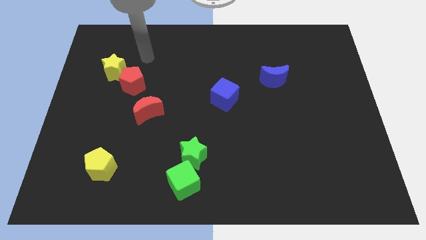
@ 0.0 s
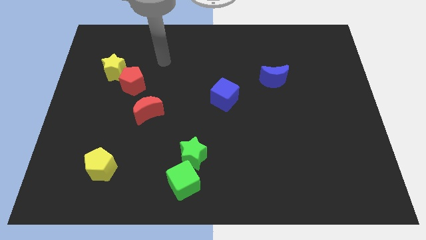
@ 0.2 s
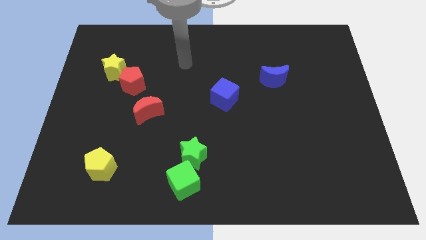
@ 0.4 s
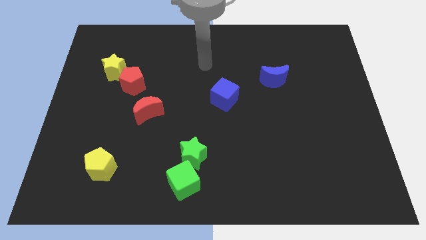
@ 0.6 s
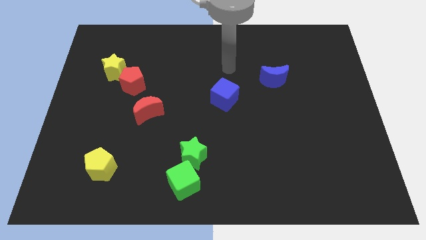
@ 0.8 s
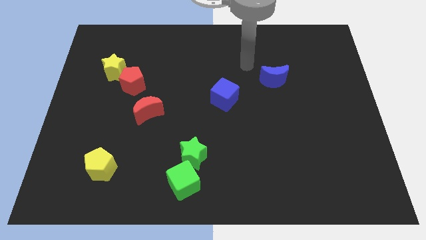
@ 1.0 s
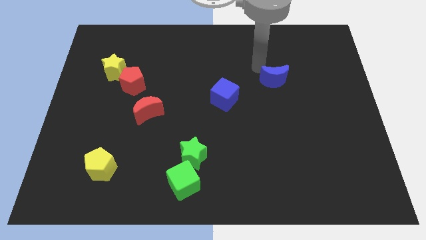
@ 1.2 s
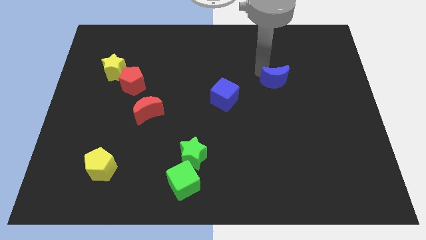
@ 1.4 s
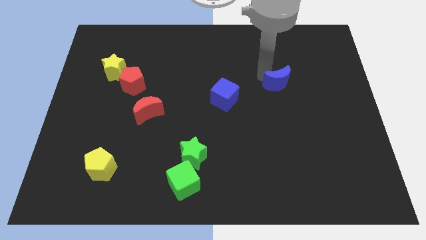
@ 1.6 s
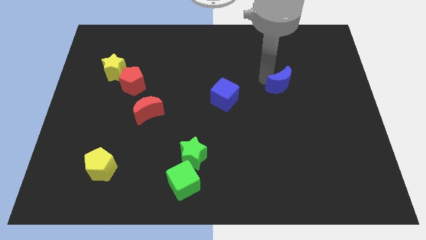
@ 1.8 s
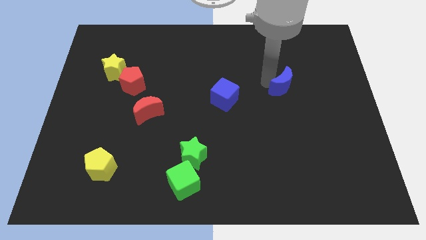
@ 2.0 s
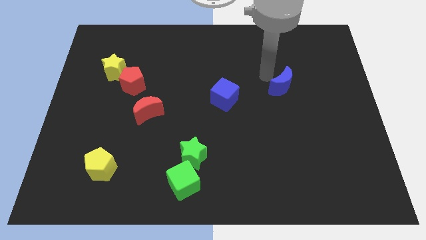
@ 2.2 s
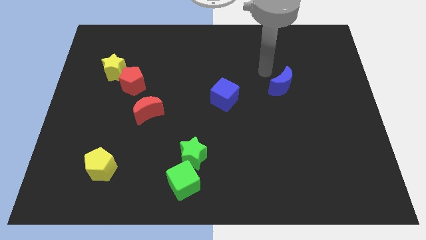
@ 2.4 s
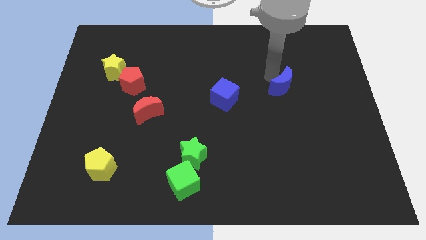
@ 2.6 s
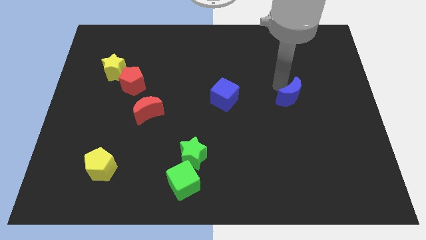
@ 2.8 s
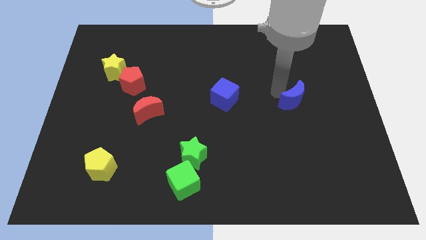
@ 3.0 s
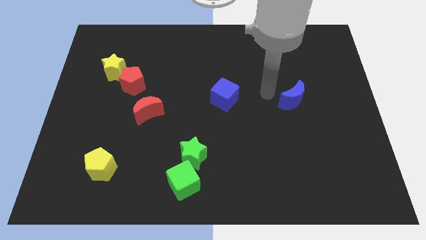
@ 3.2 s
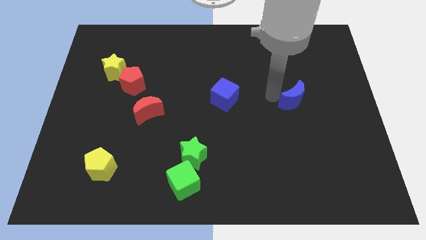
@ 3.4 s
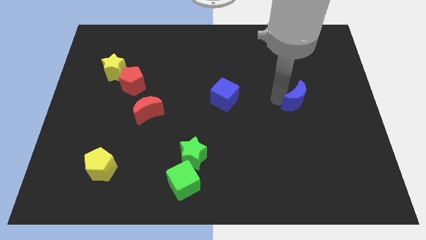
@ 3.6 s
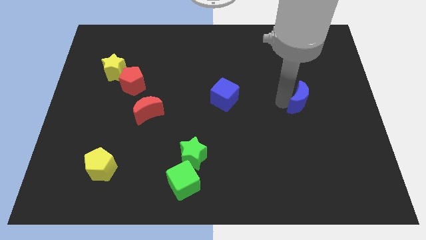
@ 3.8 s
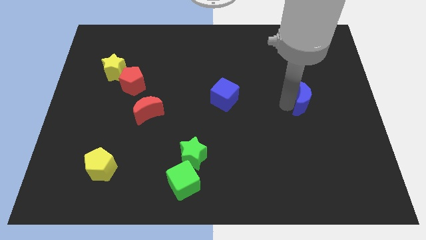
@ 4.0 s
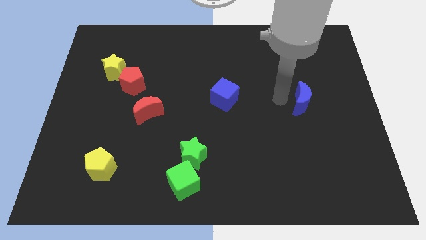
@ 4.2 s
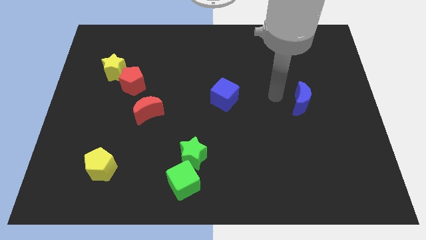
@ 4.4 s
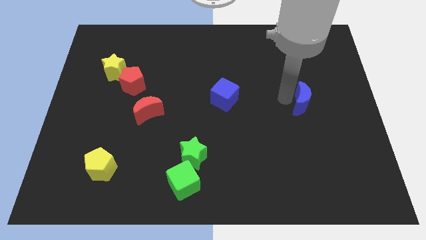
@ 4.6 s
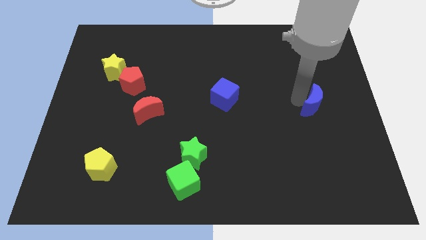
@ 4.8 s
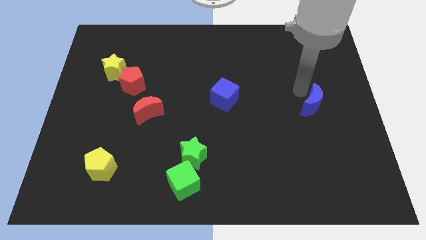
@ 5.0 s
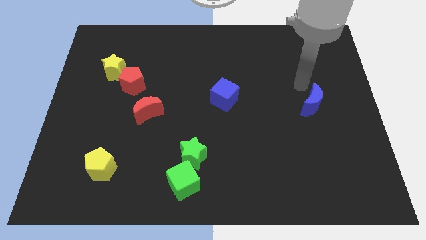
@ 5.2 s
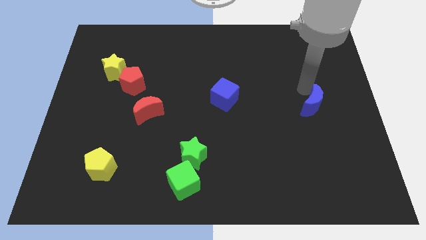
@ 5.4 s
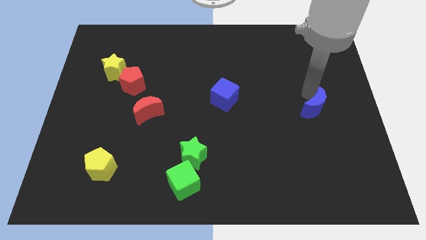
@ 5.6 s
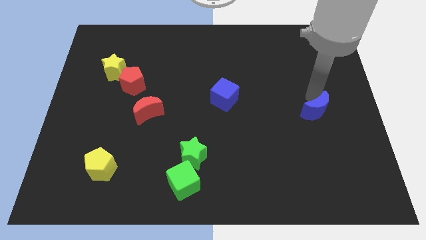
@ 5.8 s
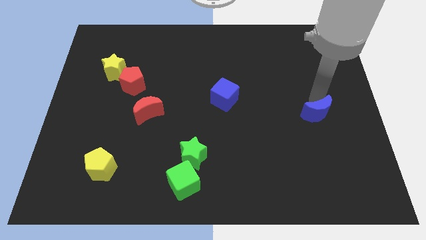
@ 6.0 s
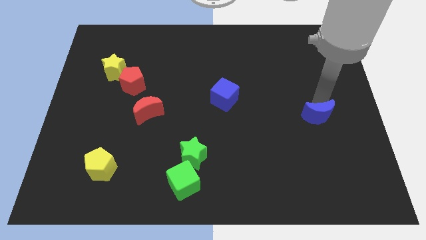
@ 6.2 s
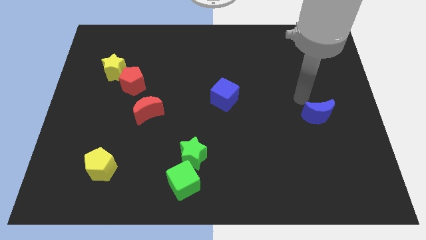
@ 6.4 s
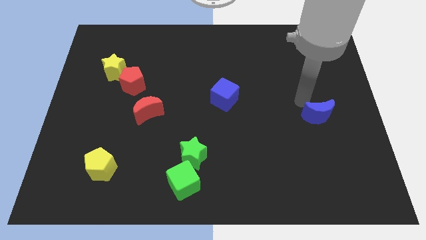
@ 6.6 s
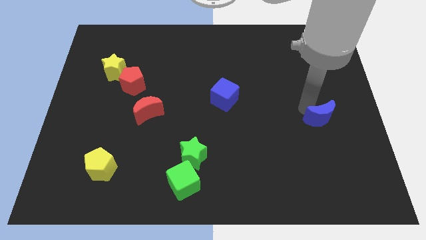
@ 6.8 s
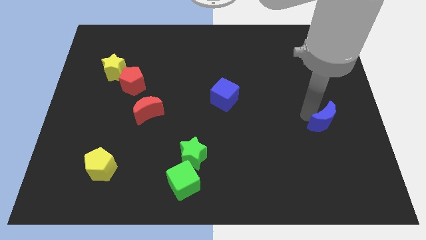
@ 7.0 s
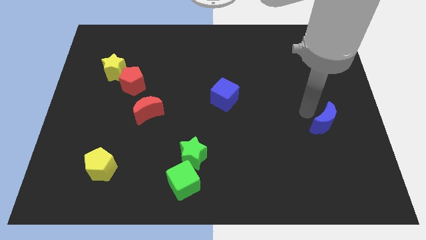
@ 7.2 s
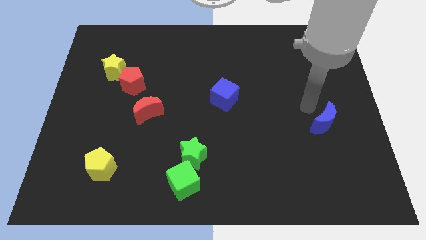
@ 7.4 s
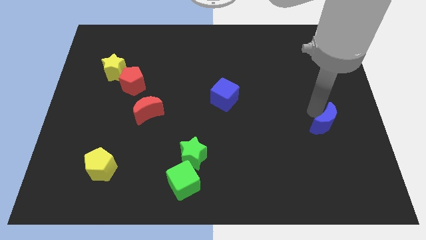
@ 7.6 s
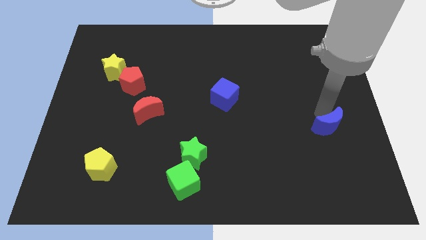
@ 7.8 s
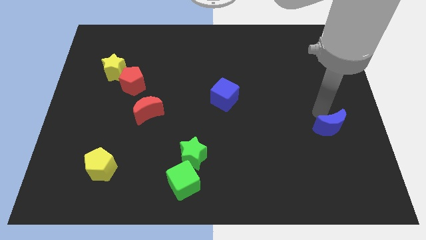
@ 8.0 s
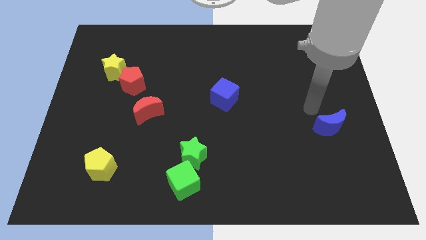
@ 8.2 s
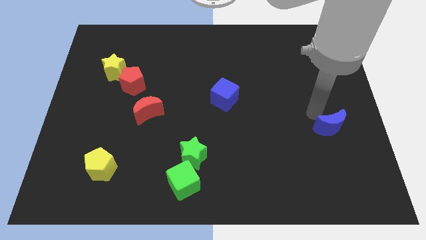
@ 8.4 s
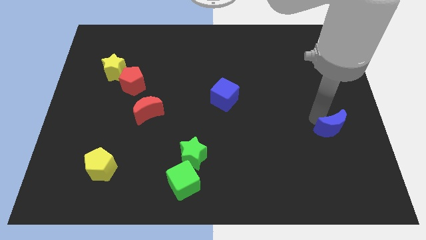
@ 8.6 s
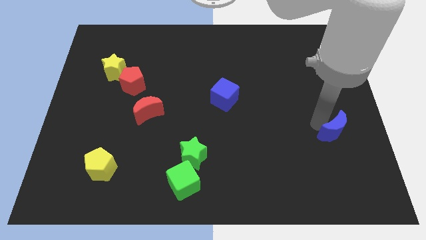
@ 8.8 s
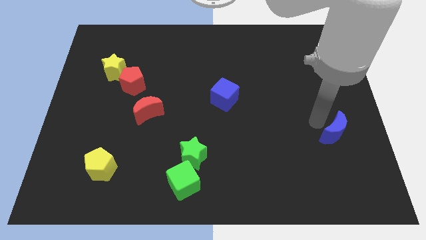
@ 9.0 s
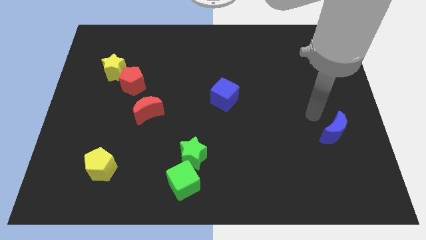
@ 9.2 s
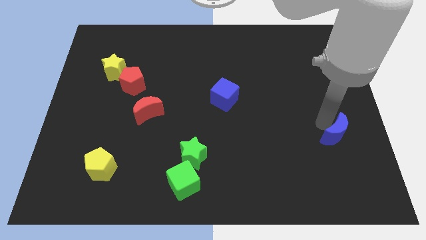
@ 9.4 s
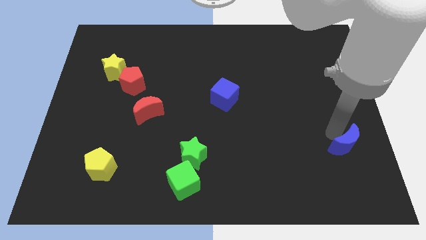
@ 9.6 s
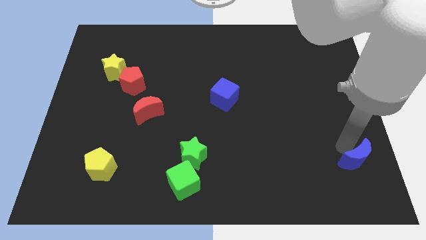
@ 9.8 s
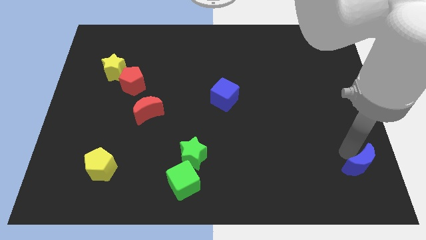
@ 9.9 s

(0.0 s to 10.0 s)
push the blue moon to the bottom right corner

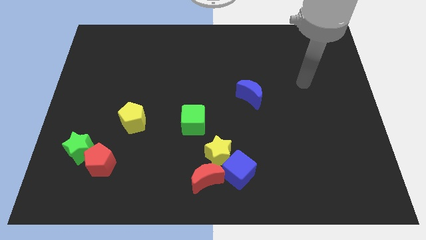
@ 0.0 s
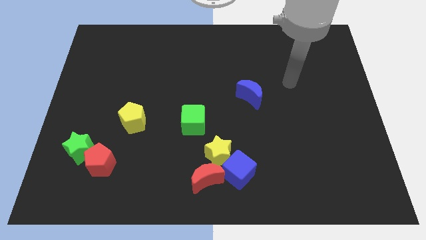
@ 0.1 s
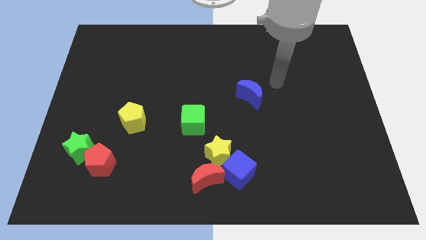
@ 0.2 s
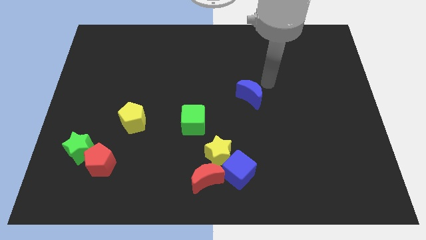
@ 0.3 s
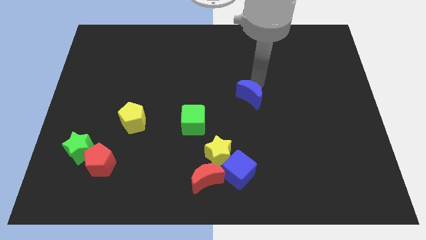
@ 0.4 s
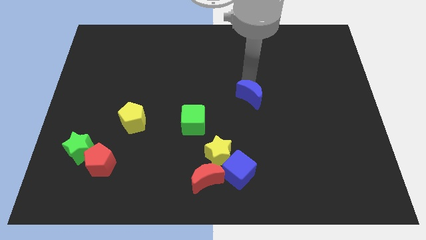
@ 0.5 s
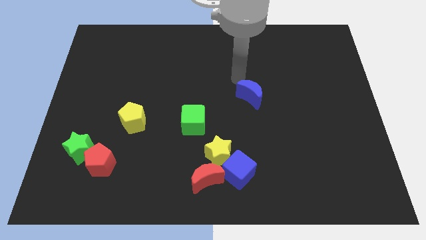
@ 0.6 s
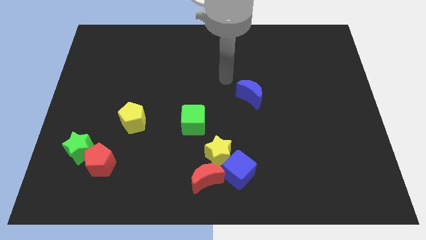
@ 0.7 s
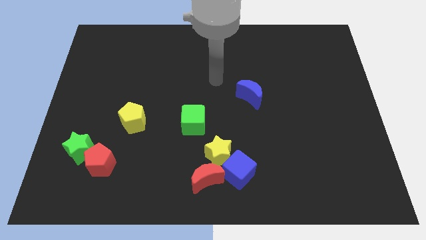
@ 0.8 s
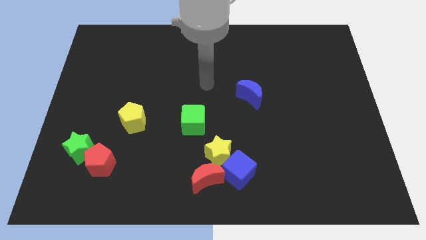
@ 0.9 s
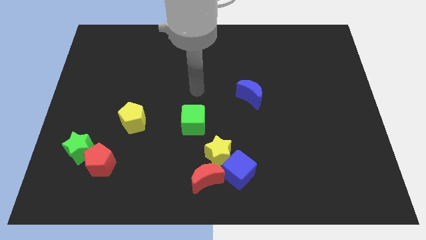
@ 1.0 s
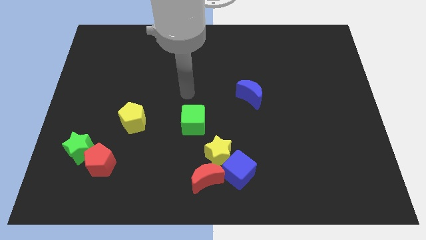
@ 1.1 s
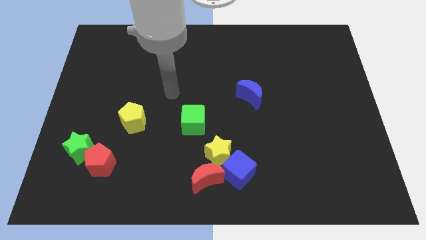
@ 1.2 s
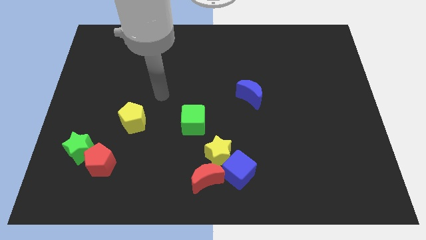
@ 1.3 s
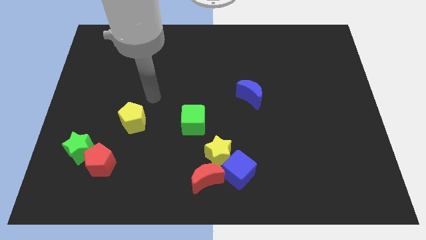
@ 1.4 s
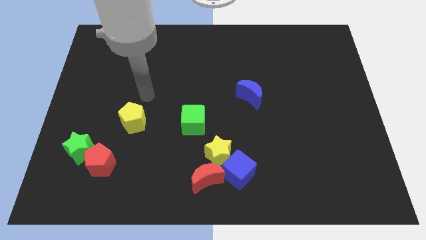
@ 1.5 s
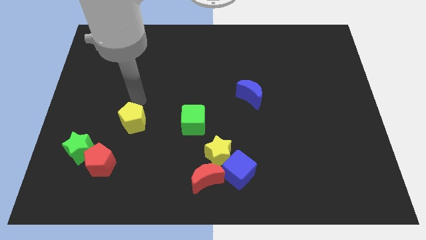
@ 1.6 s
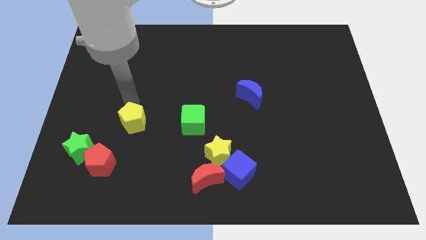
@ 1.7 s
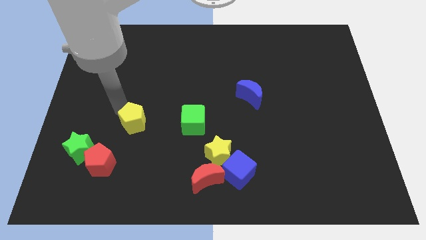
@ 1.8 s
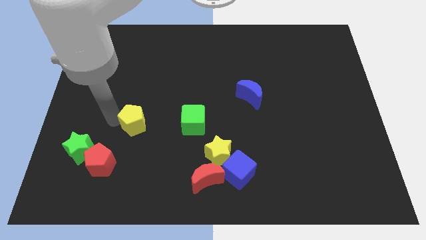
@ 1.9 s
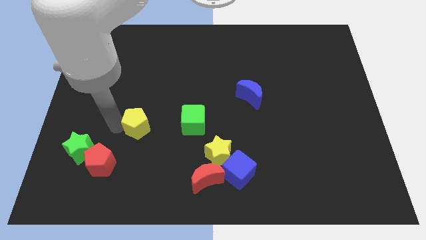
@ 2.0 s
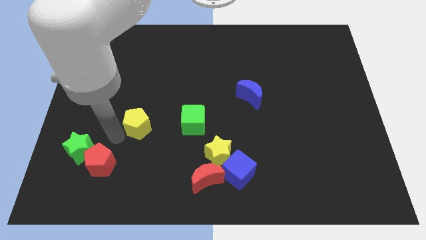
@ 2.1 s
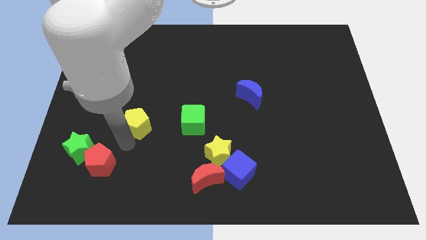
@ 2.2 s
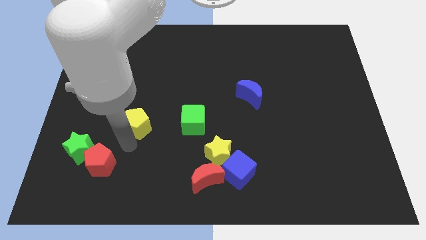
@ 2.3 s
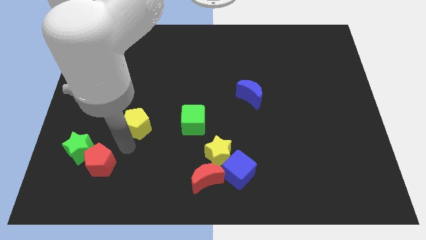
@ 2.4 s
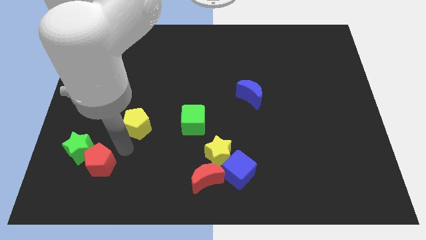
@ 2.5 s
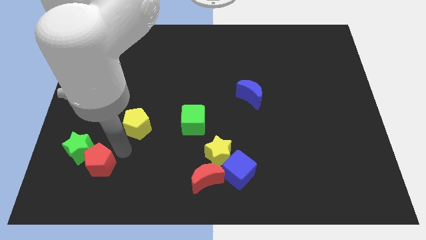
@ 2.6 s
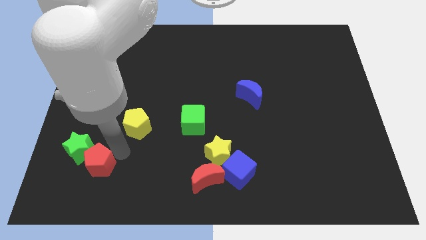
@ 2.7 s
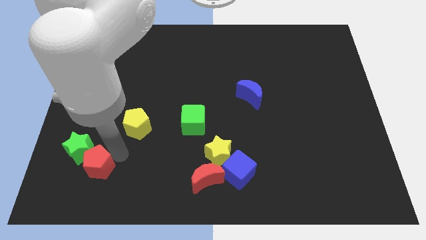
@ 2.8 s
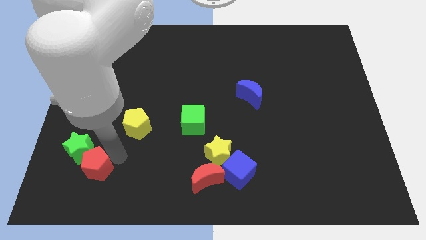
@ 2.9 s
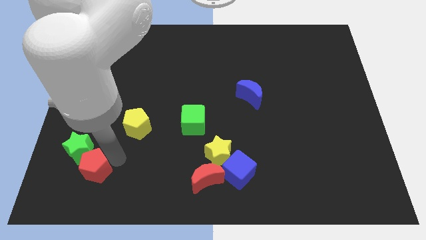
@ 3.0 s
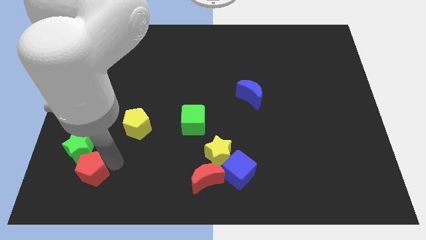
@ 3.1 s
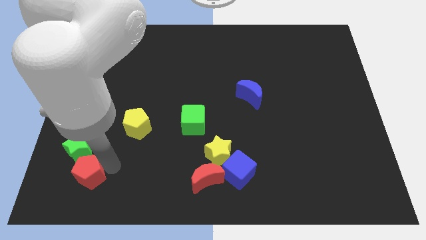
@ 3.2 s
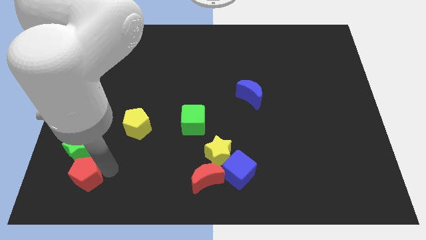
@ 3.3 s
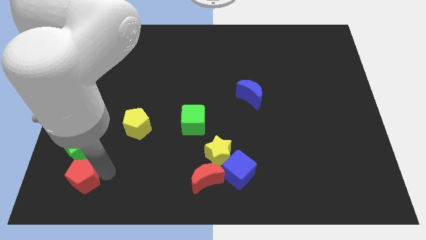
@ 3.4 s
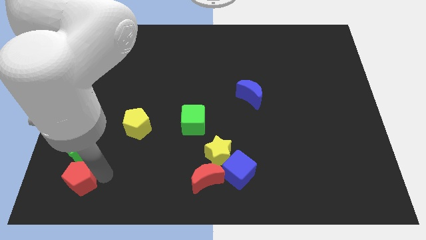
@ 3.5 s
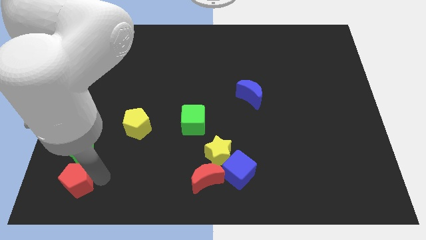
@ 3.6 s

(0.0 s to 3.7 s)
move the red pentagon to the lower left corner
